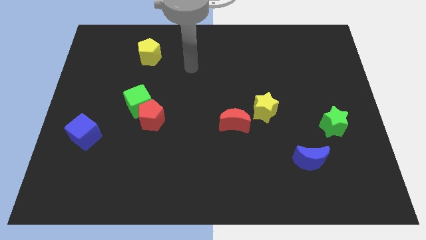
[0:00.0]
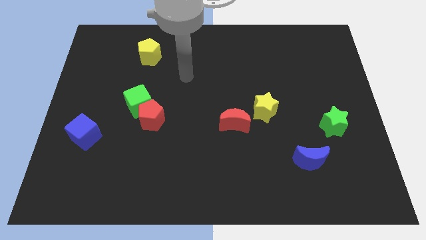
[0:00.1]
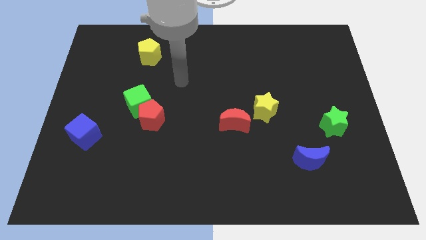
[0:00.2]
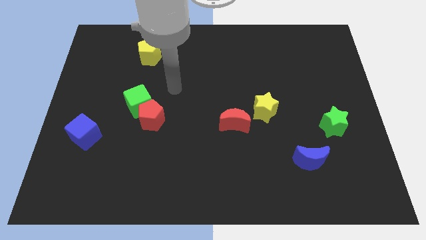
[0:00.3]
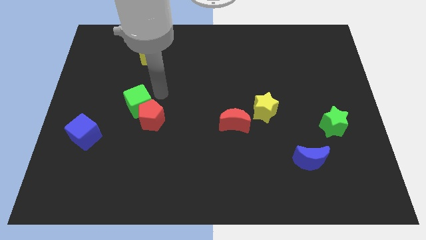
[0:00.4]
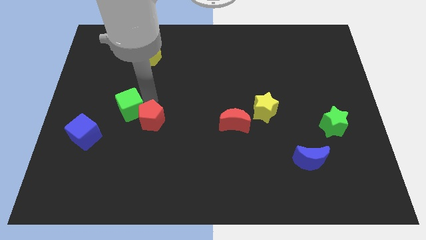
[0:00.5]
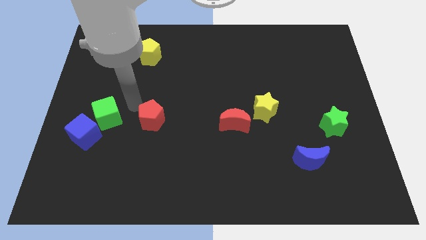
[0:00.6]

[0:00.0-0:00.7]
pull the red pentagon apart from the green cube

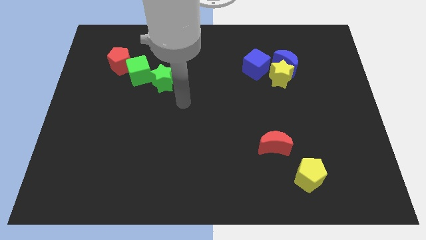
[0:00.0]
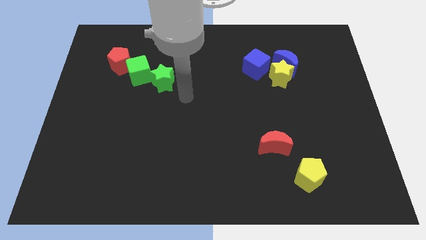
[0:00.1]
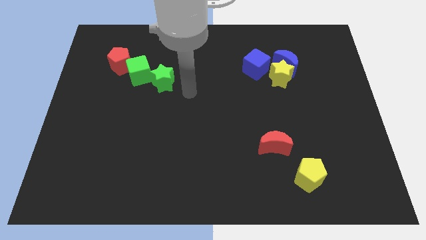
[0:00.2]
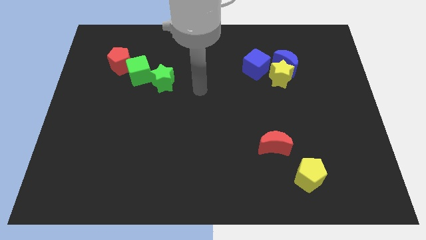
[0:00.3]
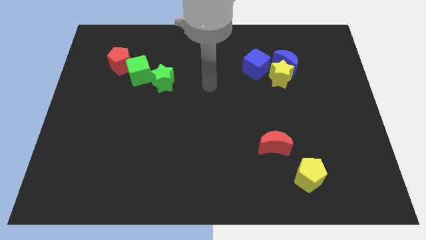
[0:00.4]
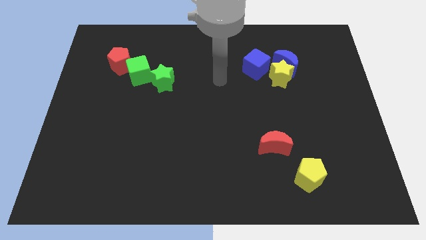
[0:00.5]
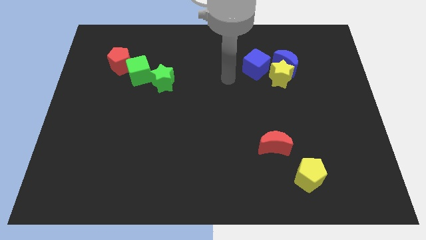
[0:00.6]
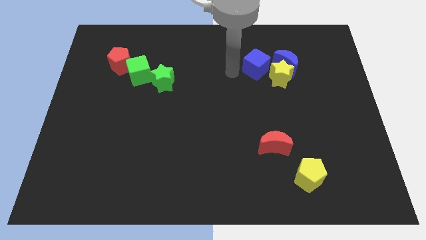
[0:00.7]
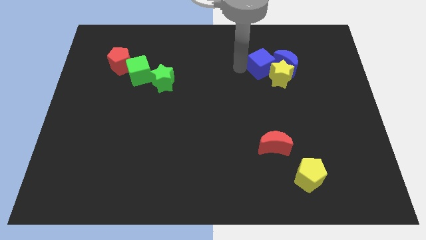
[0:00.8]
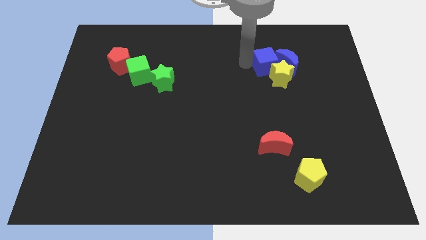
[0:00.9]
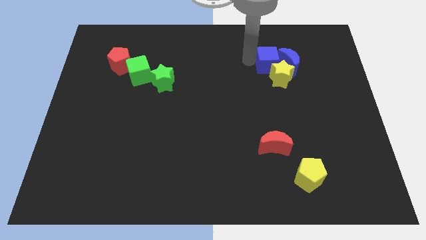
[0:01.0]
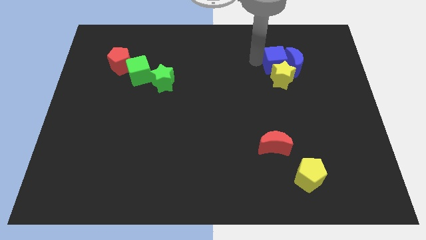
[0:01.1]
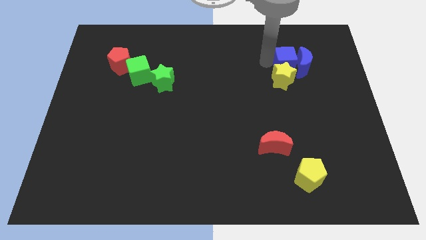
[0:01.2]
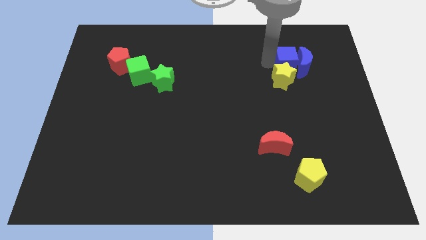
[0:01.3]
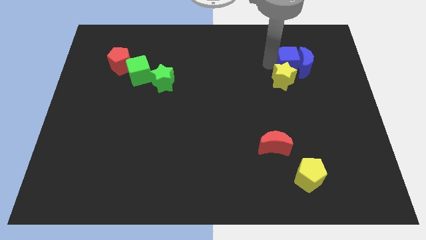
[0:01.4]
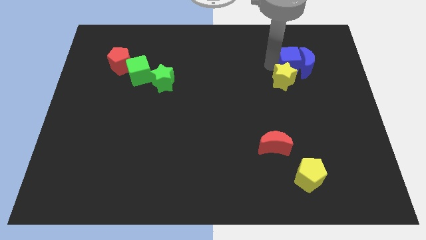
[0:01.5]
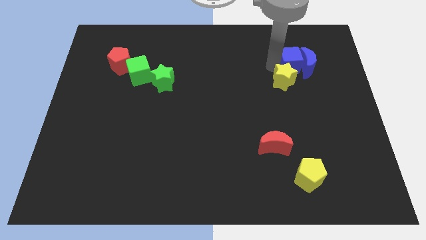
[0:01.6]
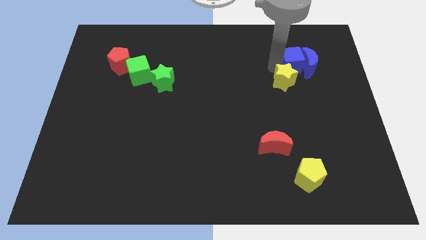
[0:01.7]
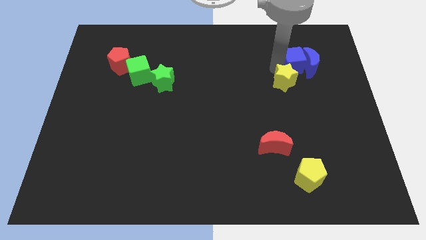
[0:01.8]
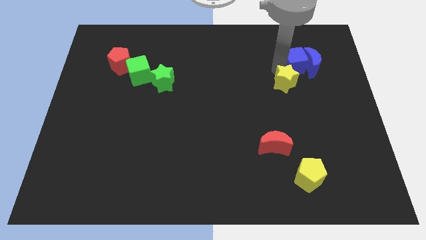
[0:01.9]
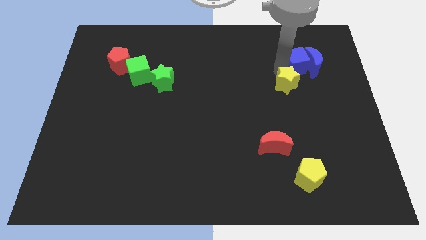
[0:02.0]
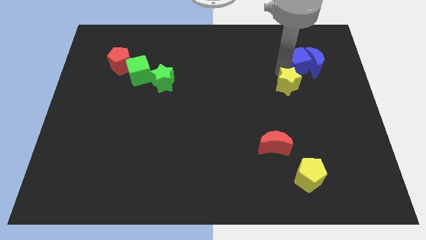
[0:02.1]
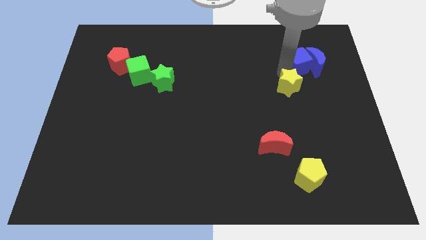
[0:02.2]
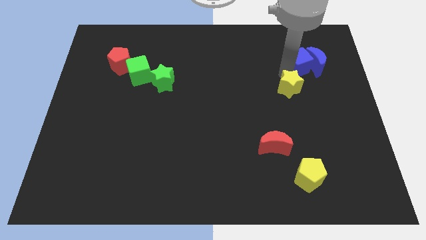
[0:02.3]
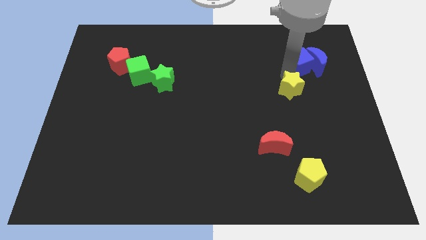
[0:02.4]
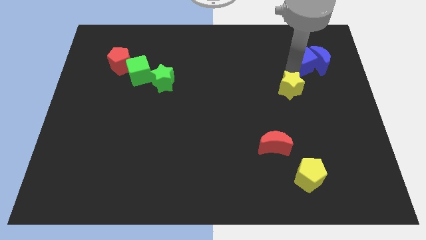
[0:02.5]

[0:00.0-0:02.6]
move the yellow star away from the blue moon and blue cube

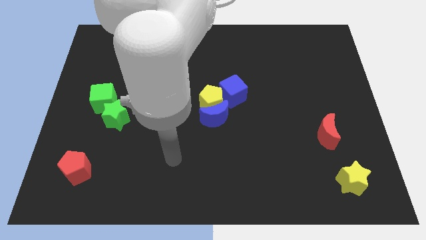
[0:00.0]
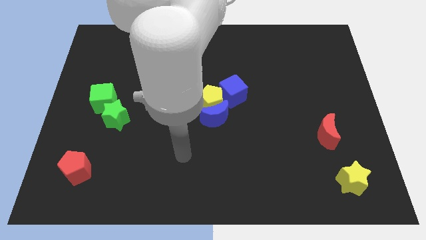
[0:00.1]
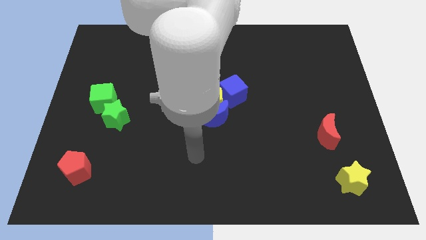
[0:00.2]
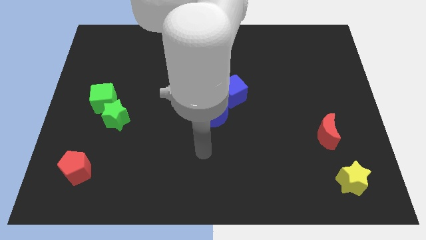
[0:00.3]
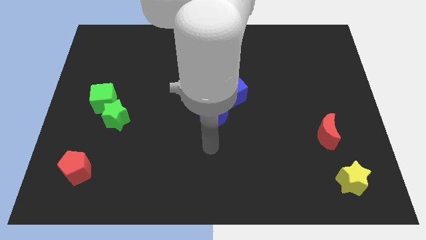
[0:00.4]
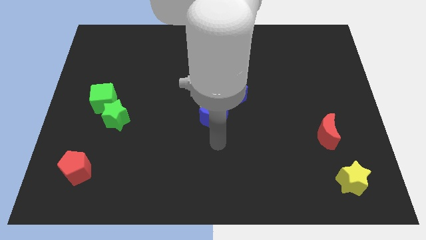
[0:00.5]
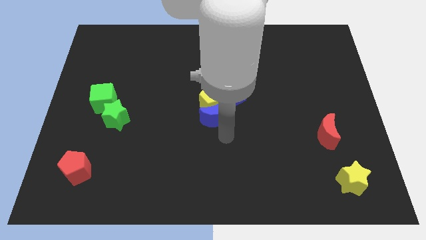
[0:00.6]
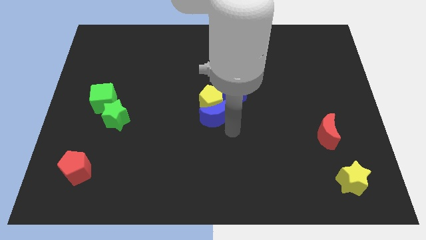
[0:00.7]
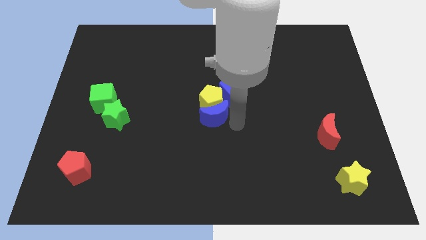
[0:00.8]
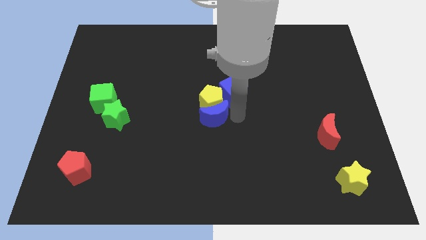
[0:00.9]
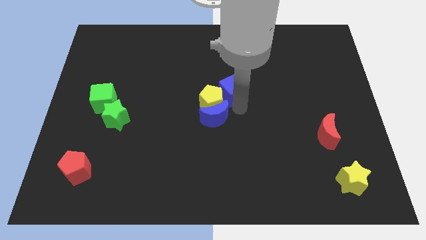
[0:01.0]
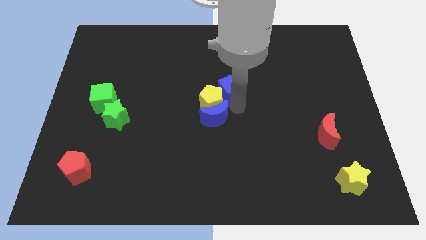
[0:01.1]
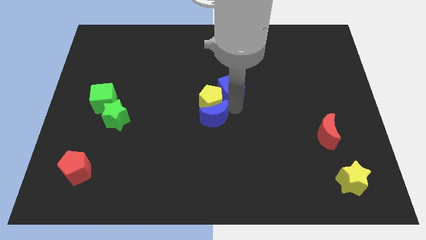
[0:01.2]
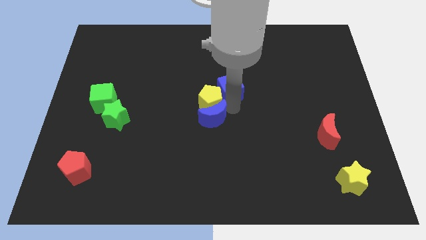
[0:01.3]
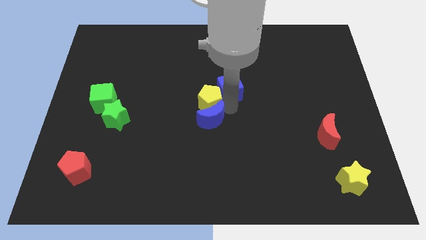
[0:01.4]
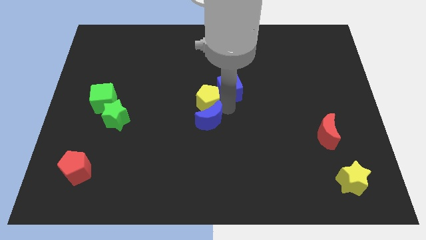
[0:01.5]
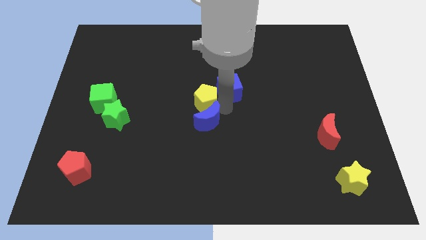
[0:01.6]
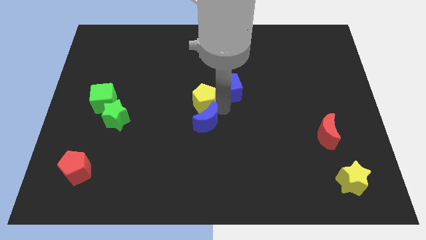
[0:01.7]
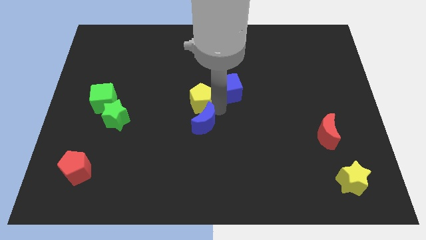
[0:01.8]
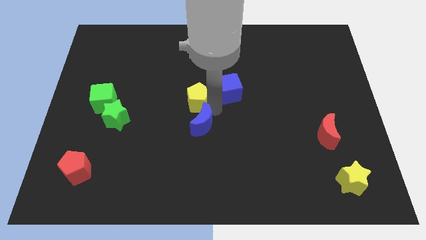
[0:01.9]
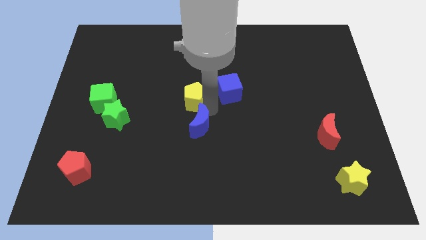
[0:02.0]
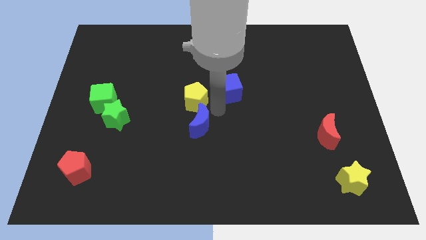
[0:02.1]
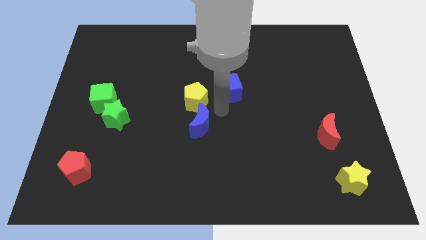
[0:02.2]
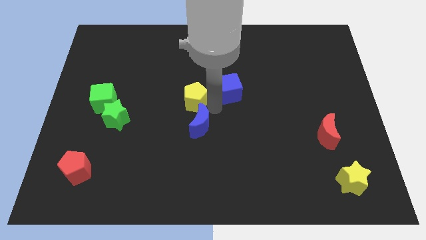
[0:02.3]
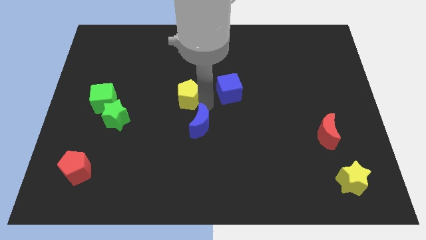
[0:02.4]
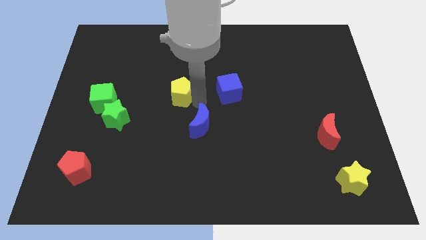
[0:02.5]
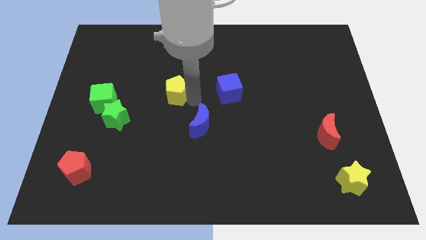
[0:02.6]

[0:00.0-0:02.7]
separate the yellow pentagon from the blue moon and blue cube

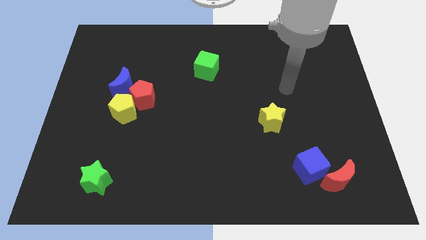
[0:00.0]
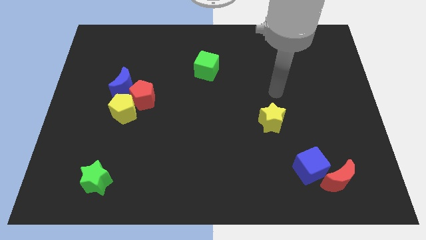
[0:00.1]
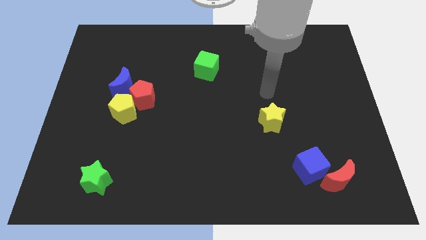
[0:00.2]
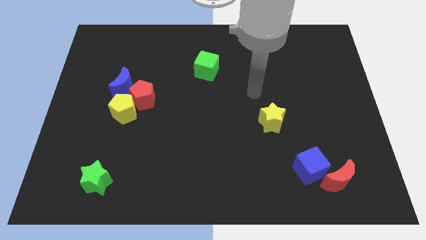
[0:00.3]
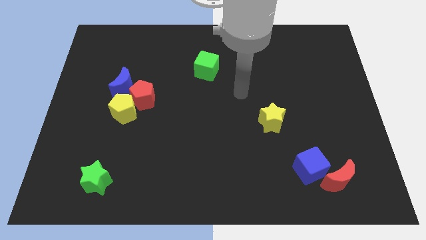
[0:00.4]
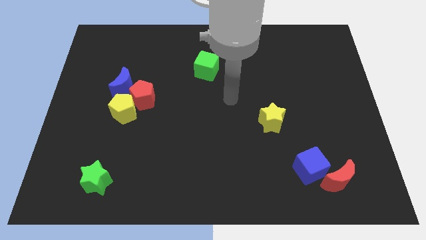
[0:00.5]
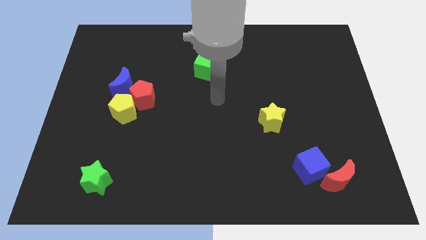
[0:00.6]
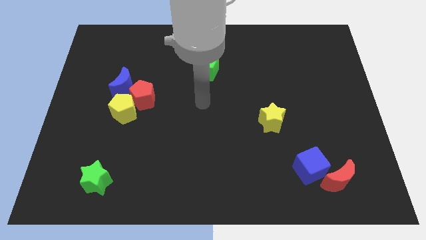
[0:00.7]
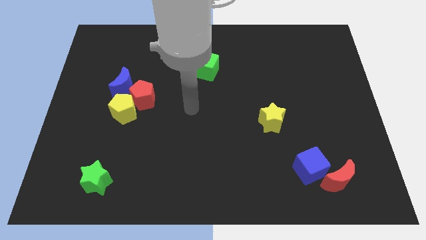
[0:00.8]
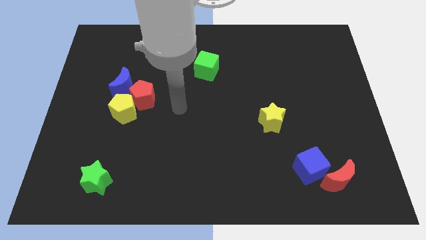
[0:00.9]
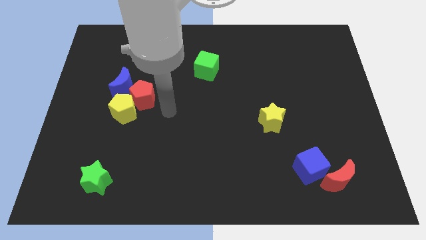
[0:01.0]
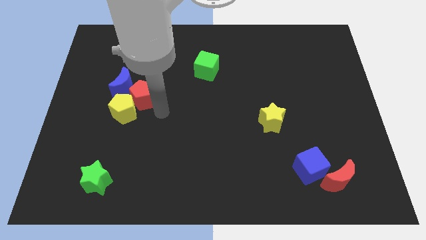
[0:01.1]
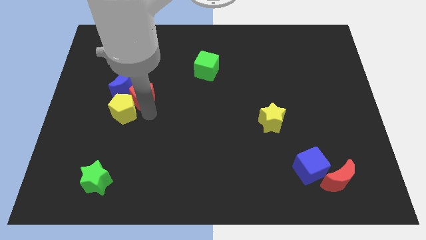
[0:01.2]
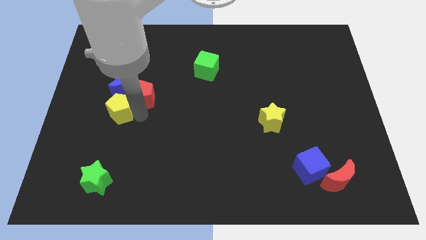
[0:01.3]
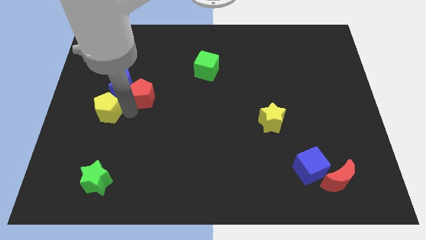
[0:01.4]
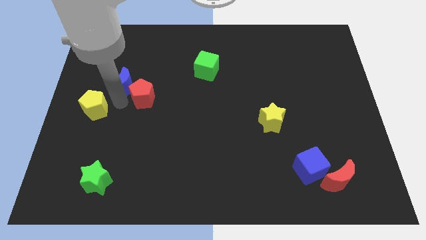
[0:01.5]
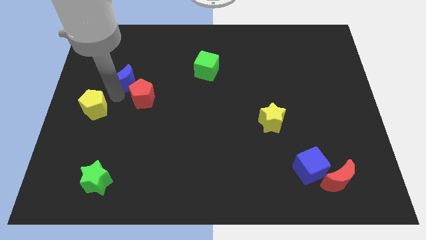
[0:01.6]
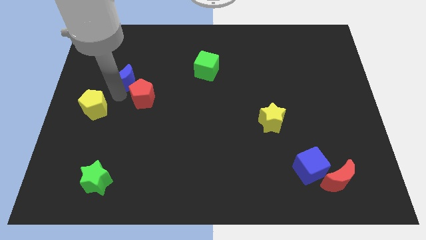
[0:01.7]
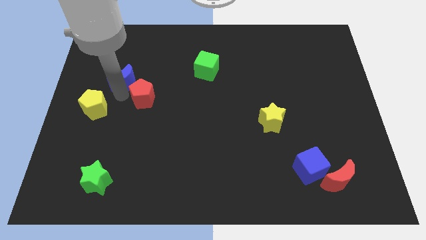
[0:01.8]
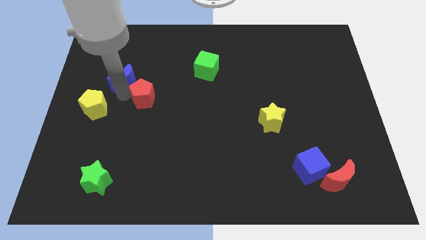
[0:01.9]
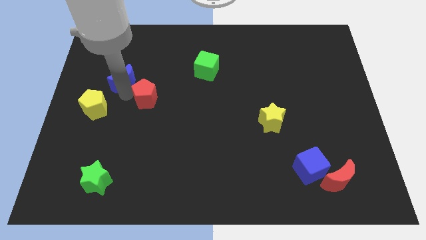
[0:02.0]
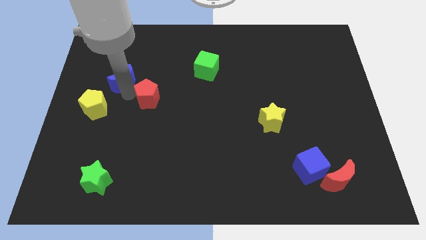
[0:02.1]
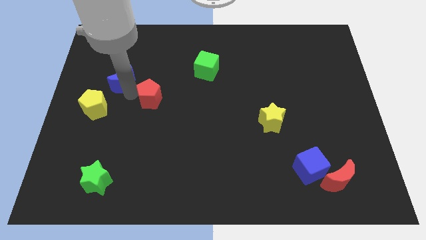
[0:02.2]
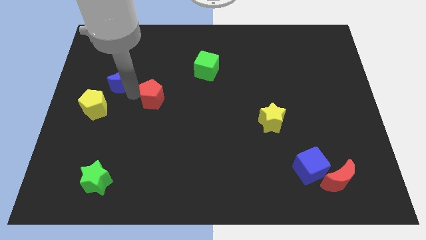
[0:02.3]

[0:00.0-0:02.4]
move the red pentagon away from the yellow pentagon and blue moon

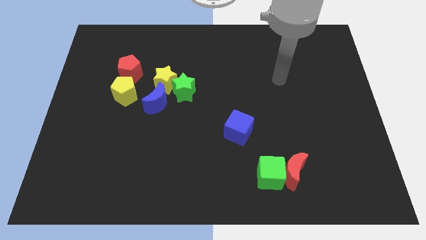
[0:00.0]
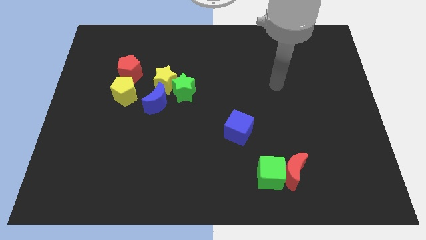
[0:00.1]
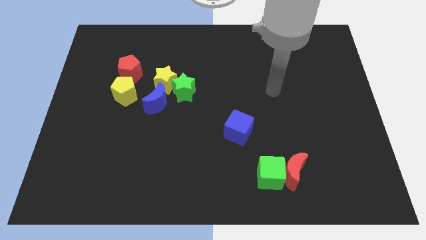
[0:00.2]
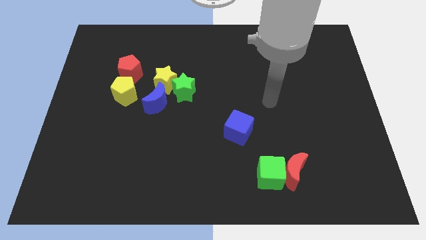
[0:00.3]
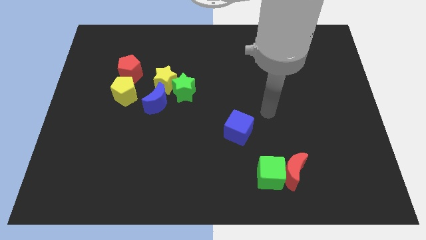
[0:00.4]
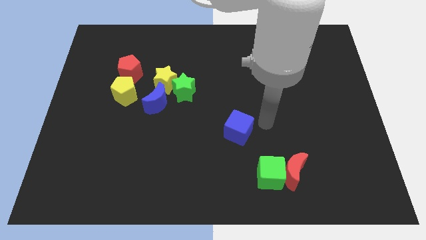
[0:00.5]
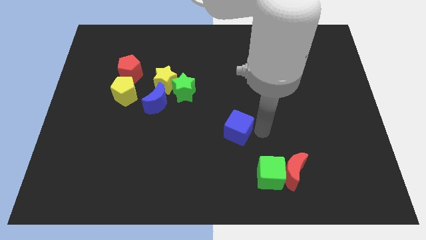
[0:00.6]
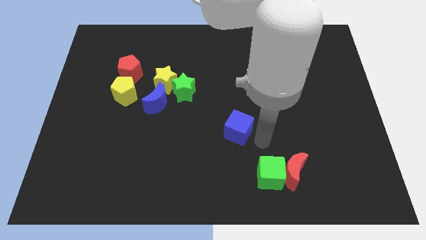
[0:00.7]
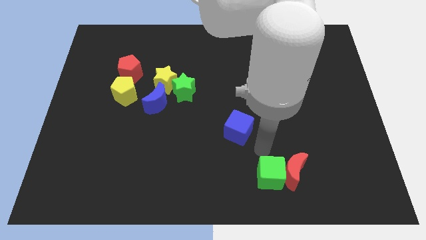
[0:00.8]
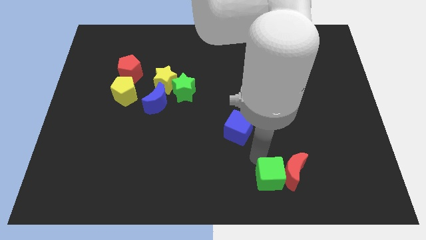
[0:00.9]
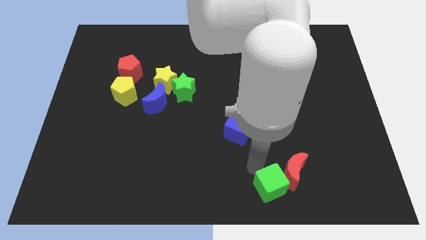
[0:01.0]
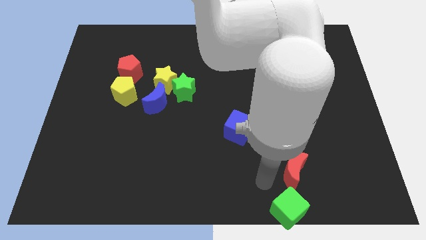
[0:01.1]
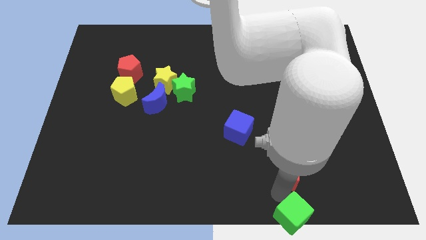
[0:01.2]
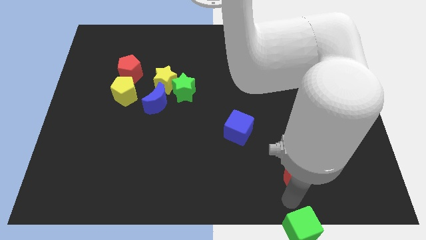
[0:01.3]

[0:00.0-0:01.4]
separate the red moon from the green cube
